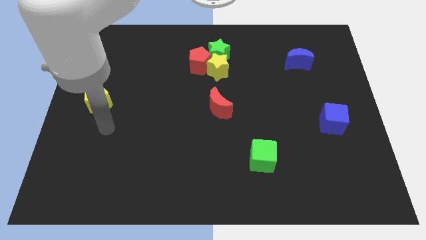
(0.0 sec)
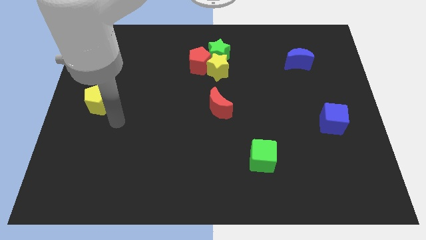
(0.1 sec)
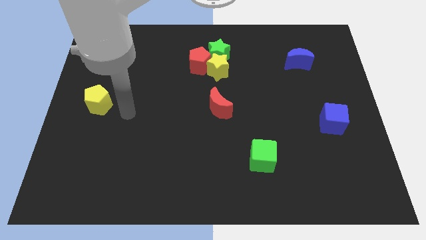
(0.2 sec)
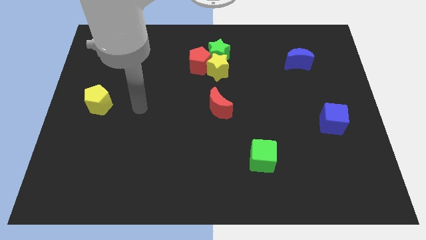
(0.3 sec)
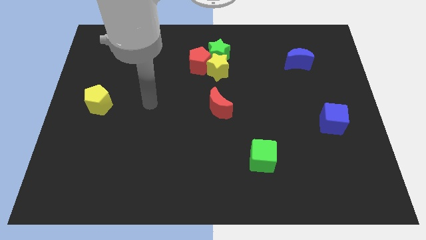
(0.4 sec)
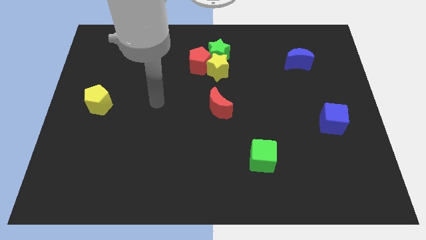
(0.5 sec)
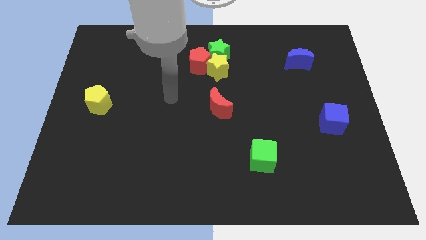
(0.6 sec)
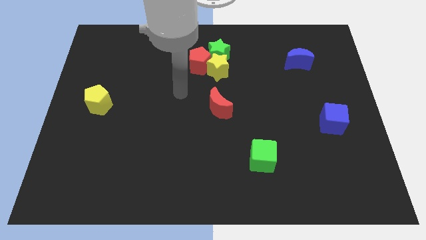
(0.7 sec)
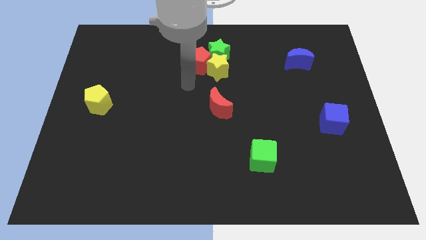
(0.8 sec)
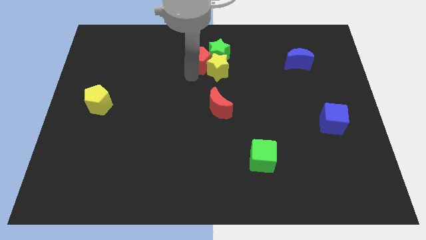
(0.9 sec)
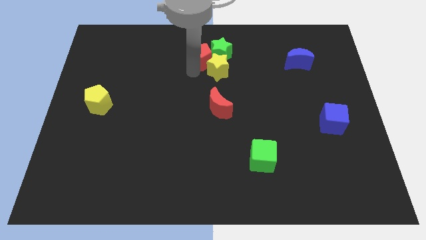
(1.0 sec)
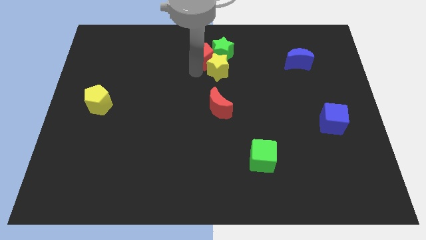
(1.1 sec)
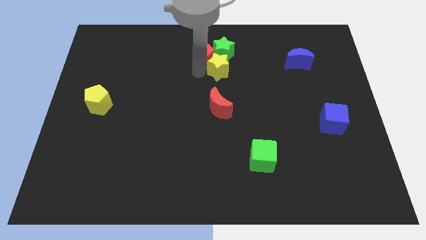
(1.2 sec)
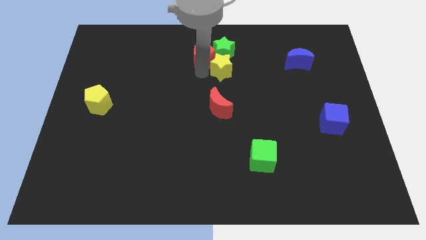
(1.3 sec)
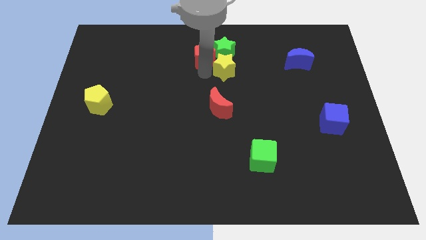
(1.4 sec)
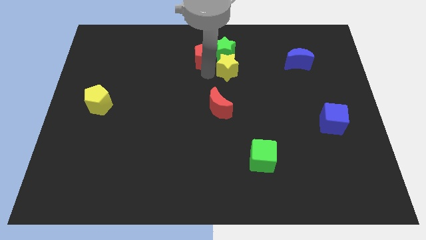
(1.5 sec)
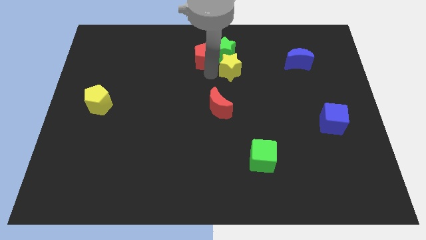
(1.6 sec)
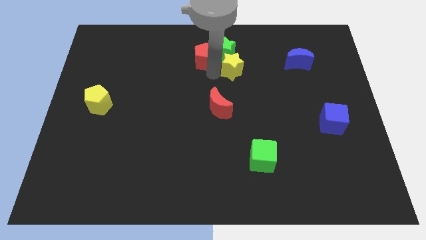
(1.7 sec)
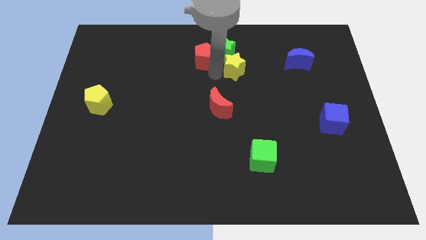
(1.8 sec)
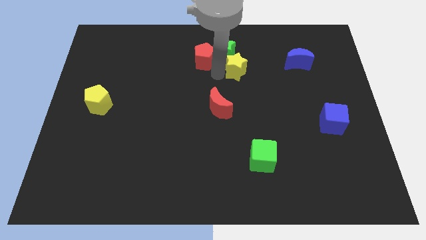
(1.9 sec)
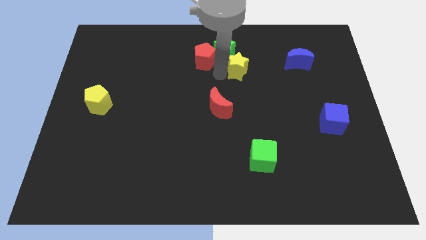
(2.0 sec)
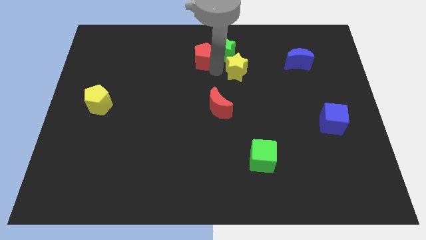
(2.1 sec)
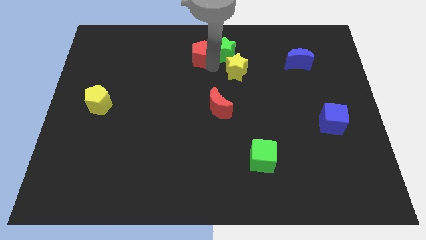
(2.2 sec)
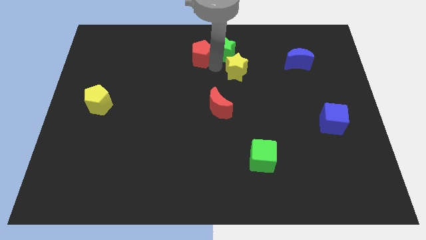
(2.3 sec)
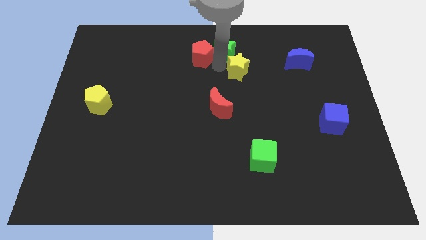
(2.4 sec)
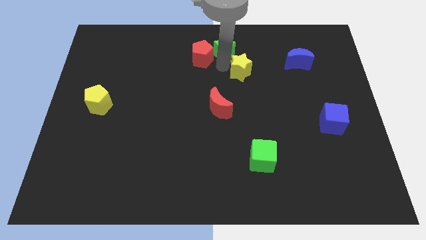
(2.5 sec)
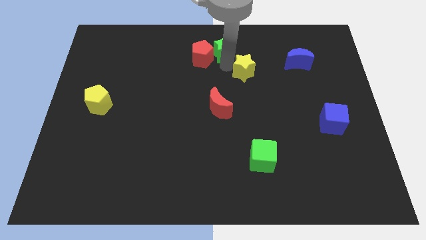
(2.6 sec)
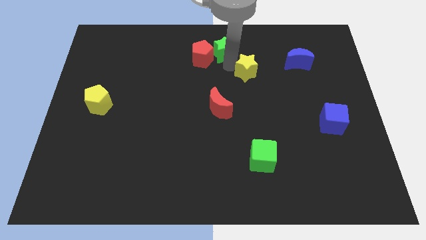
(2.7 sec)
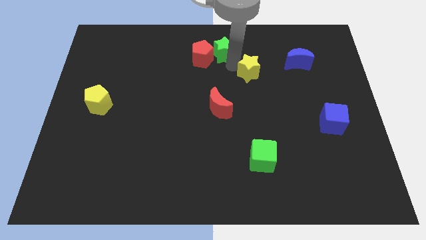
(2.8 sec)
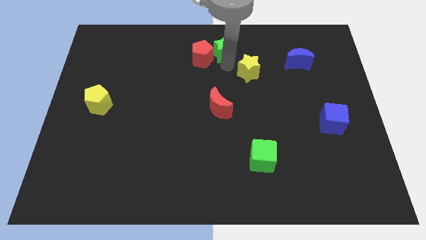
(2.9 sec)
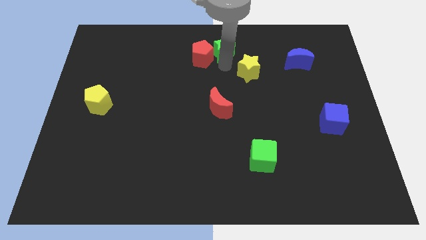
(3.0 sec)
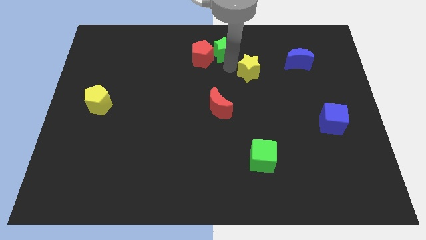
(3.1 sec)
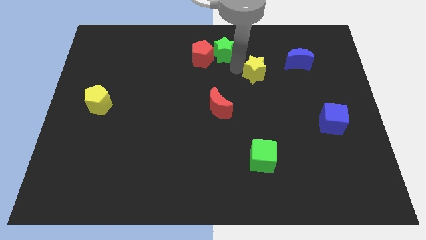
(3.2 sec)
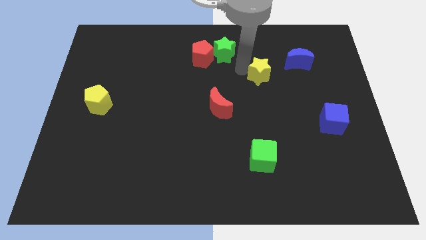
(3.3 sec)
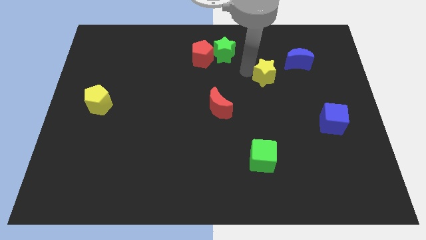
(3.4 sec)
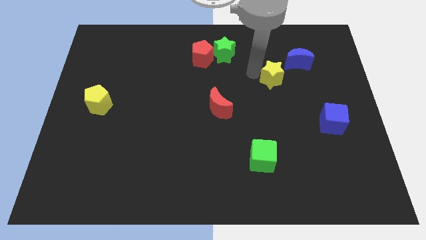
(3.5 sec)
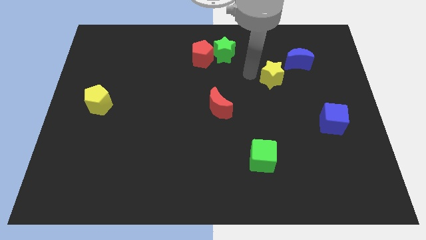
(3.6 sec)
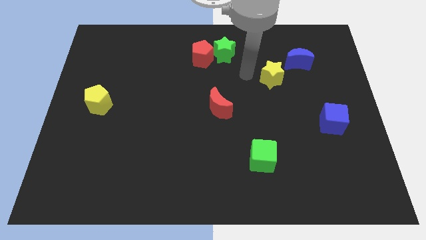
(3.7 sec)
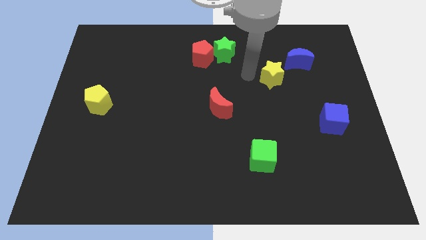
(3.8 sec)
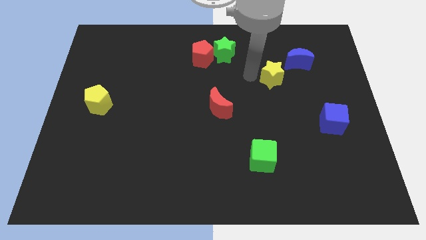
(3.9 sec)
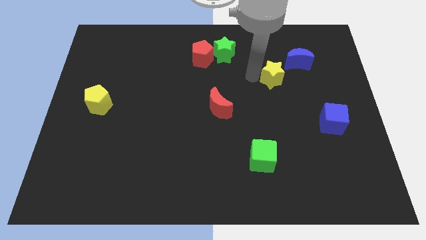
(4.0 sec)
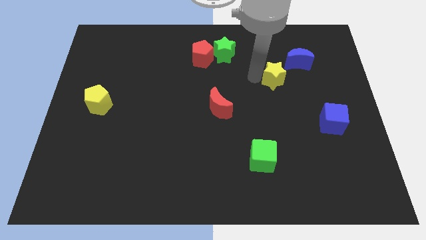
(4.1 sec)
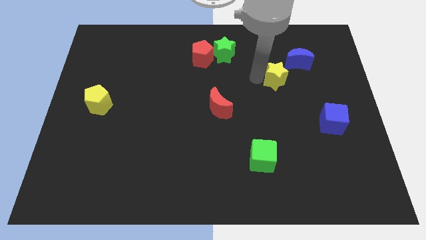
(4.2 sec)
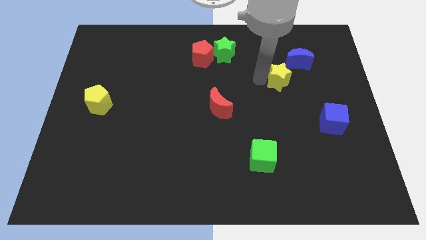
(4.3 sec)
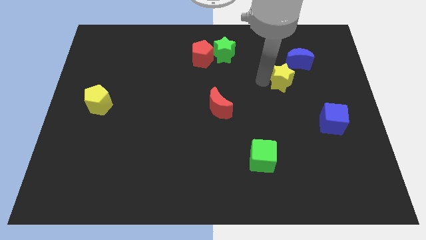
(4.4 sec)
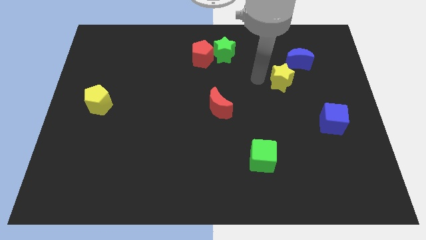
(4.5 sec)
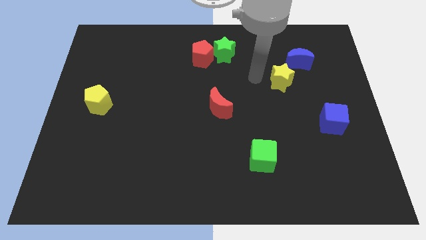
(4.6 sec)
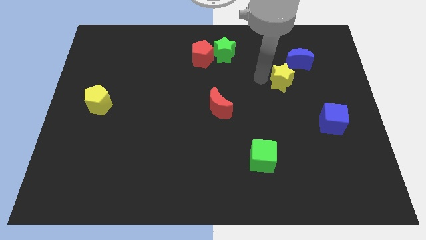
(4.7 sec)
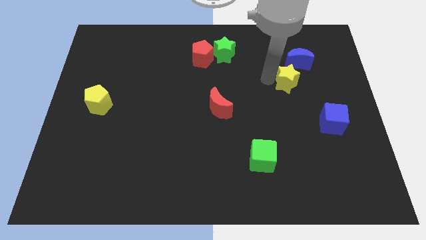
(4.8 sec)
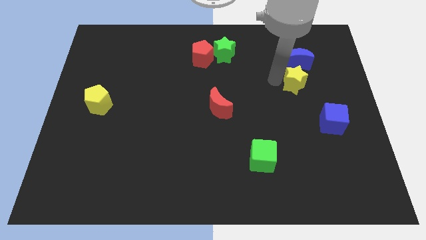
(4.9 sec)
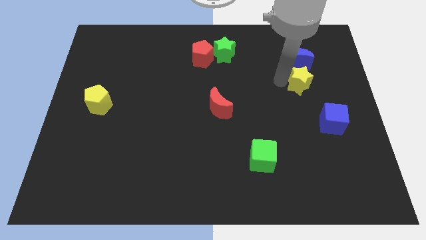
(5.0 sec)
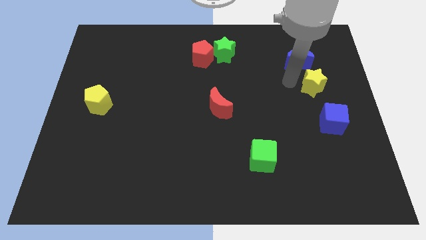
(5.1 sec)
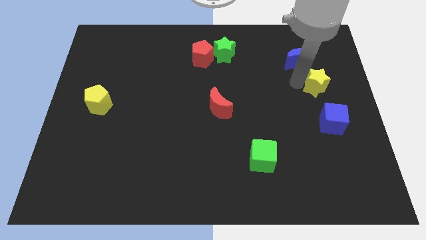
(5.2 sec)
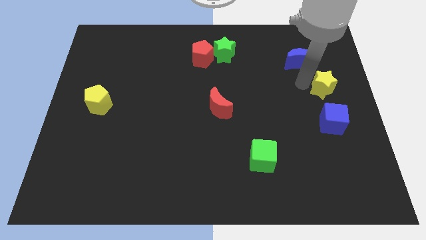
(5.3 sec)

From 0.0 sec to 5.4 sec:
put the yellow star to the right side of the board

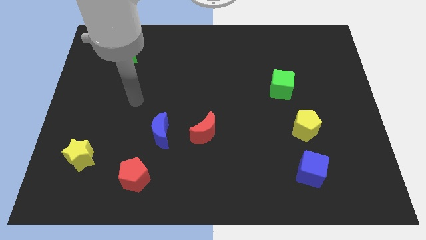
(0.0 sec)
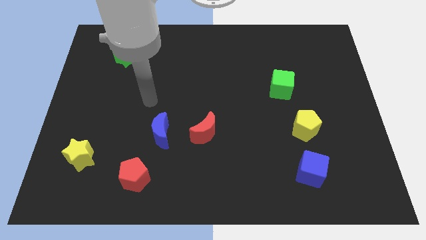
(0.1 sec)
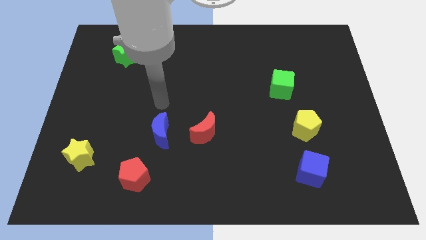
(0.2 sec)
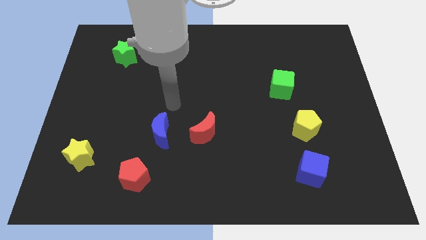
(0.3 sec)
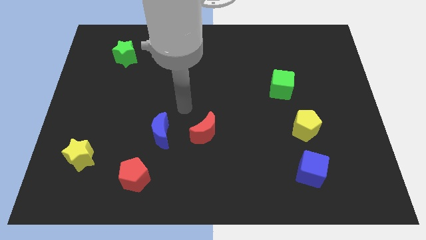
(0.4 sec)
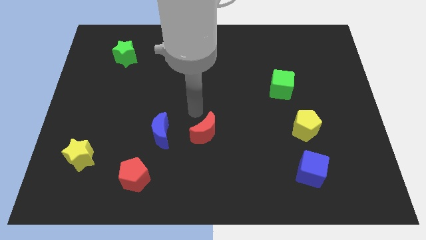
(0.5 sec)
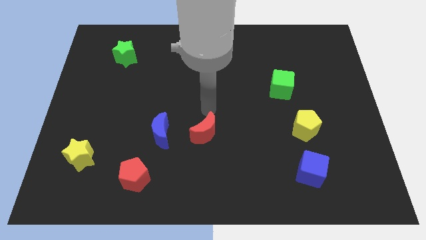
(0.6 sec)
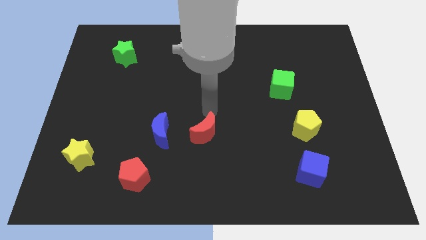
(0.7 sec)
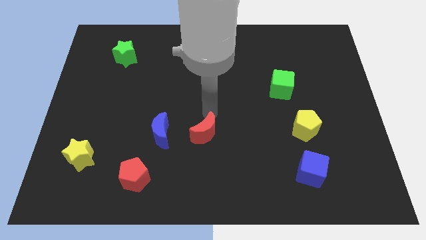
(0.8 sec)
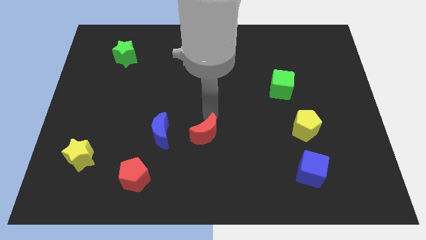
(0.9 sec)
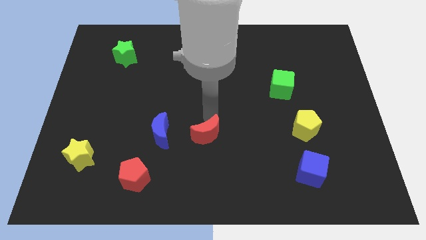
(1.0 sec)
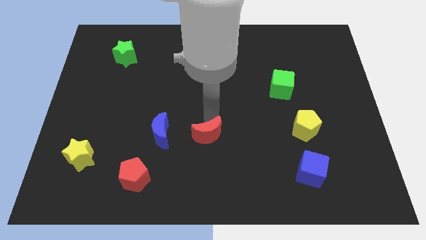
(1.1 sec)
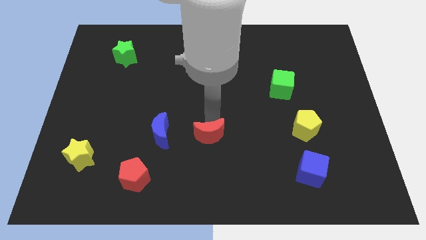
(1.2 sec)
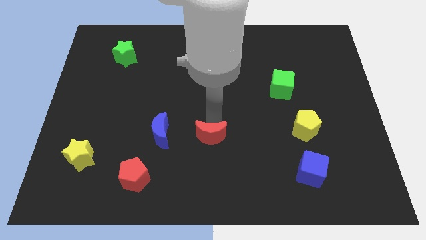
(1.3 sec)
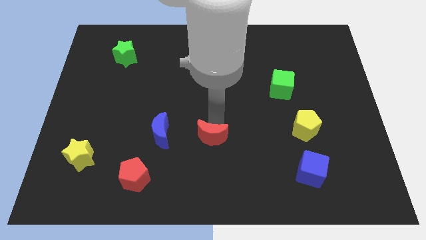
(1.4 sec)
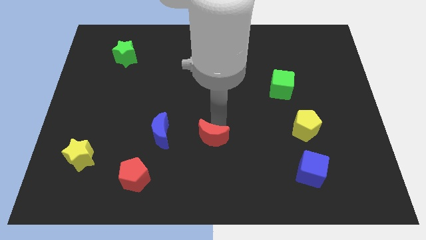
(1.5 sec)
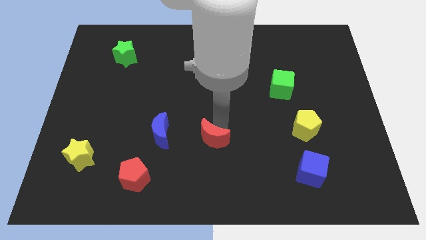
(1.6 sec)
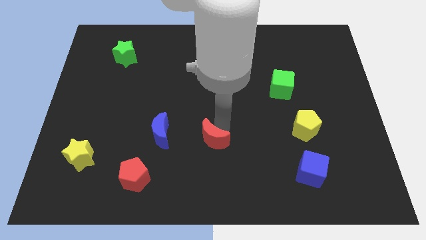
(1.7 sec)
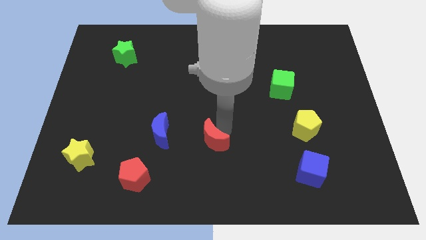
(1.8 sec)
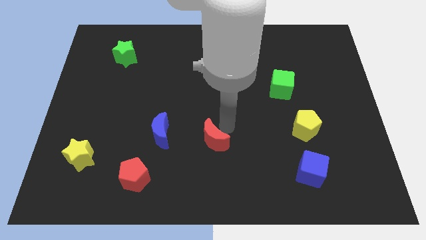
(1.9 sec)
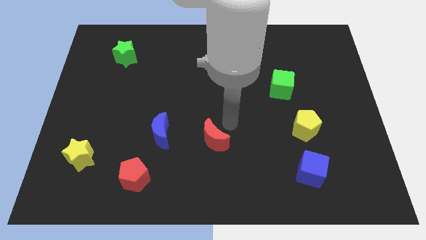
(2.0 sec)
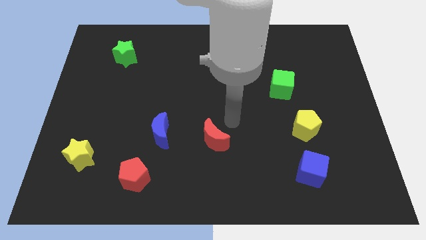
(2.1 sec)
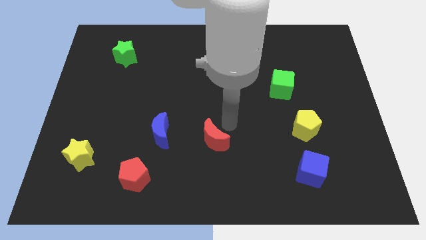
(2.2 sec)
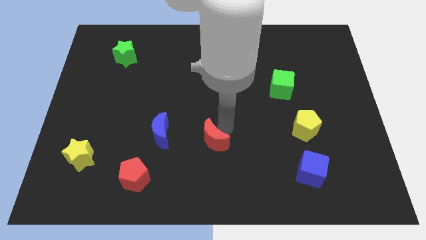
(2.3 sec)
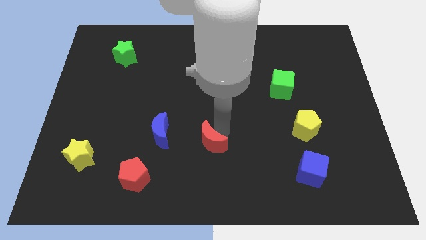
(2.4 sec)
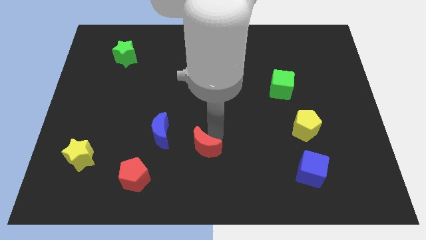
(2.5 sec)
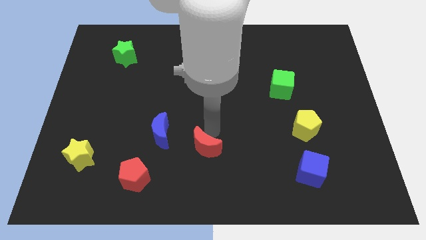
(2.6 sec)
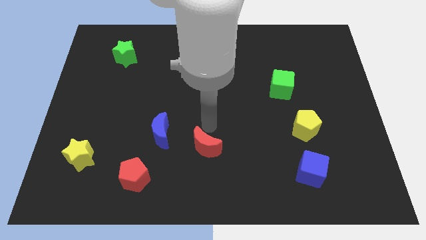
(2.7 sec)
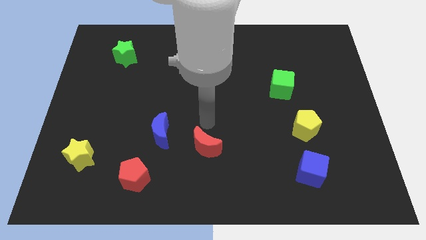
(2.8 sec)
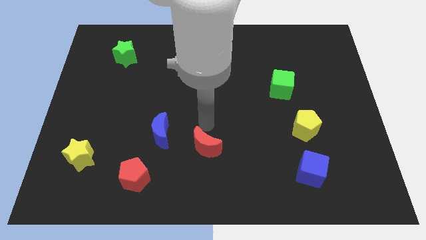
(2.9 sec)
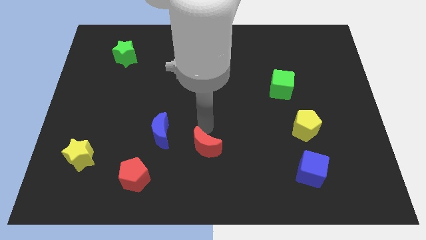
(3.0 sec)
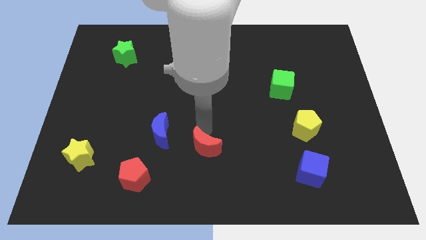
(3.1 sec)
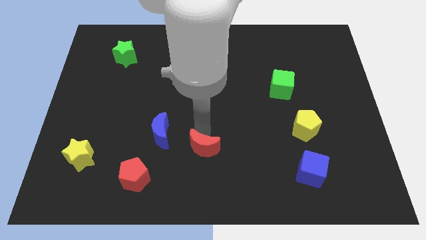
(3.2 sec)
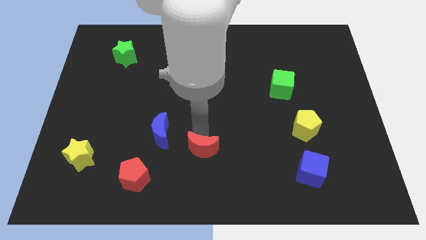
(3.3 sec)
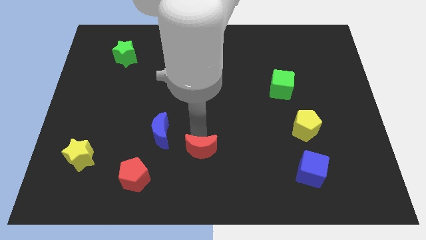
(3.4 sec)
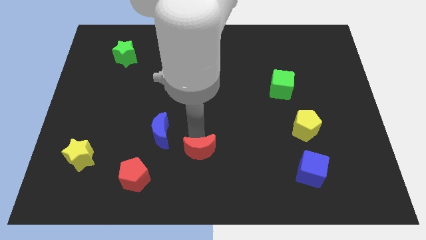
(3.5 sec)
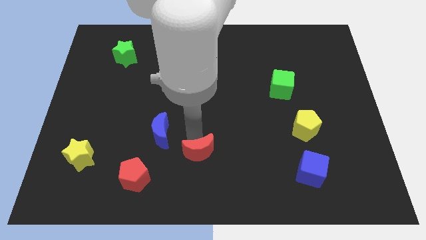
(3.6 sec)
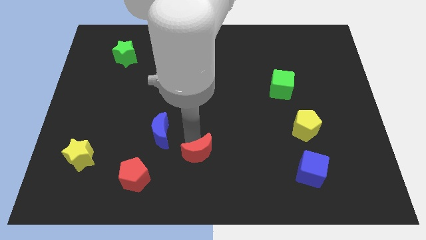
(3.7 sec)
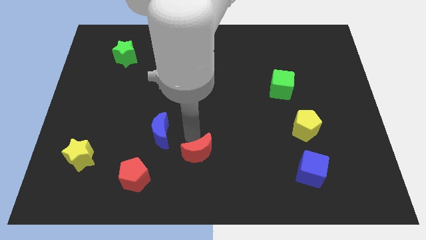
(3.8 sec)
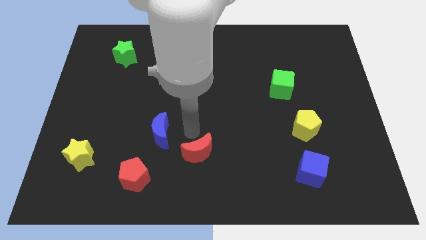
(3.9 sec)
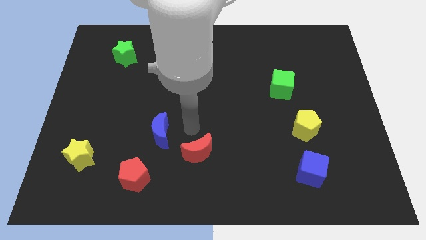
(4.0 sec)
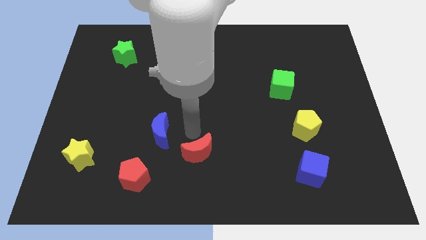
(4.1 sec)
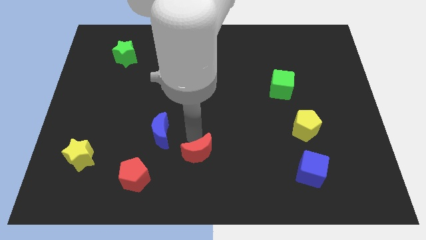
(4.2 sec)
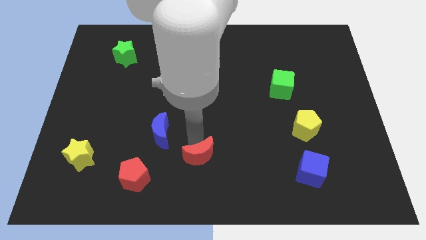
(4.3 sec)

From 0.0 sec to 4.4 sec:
slide the red moon to the bottom
